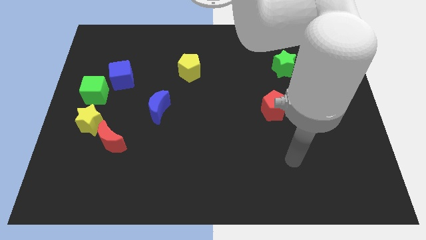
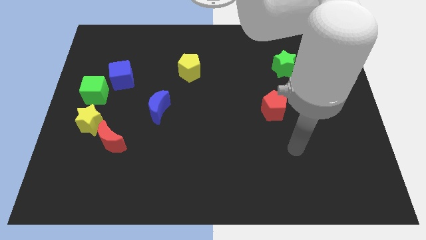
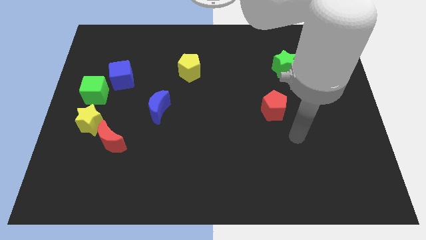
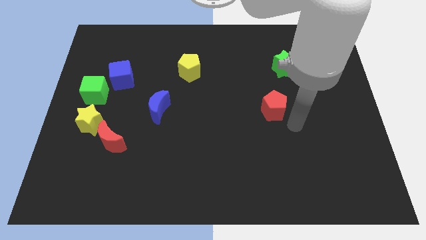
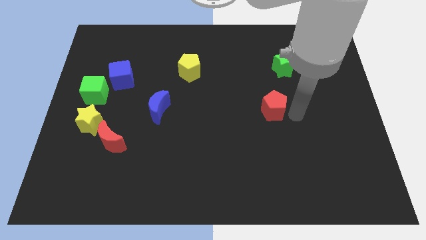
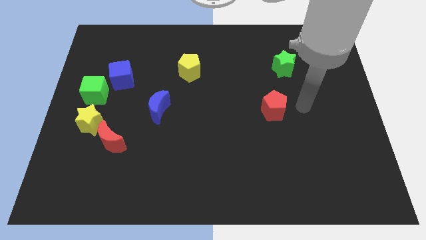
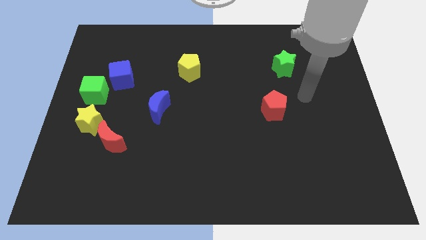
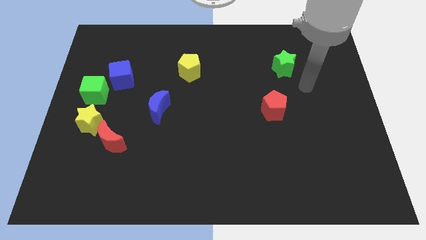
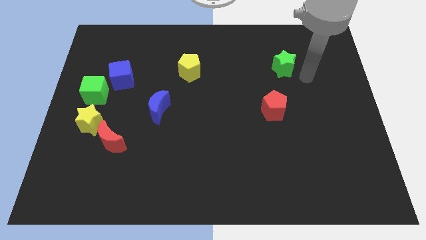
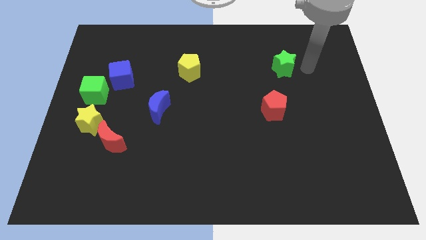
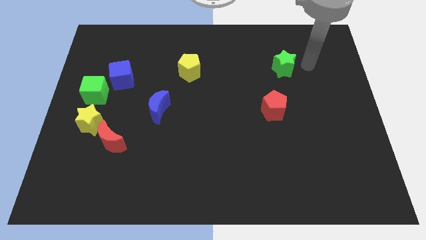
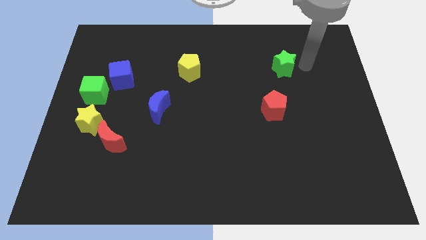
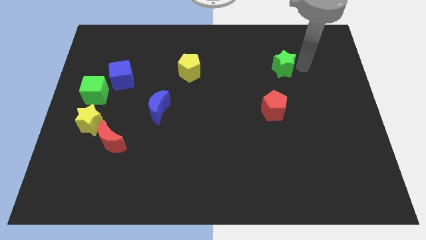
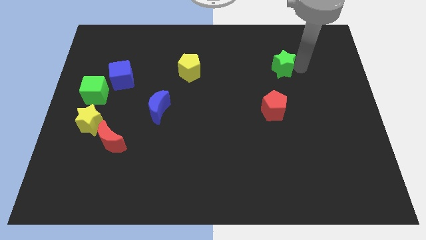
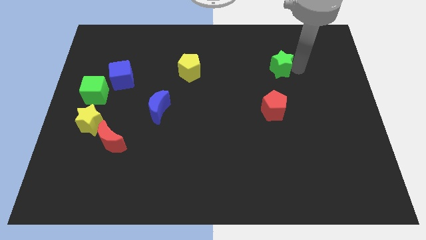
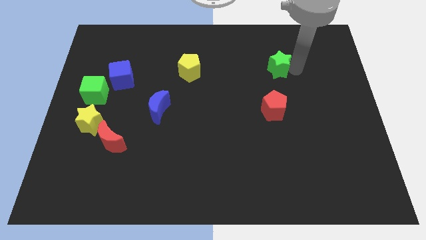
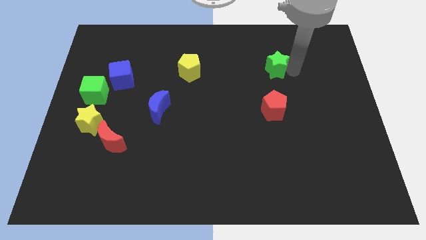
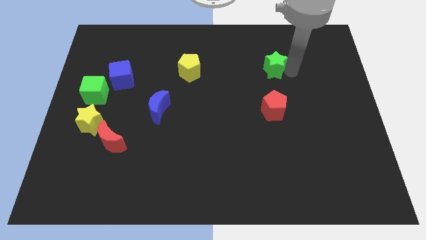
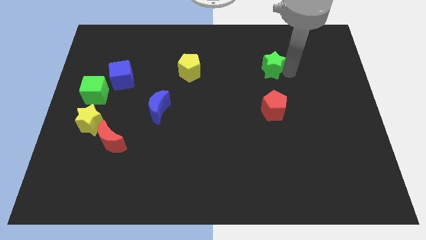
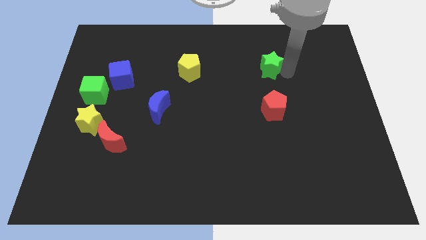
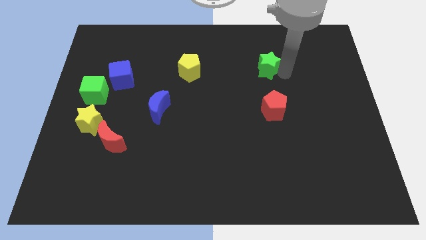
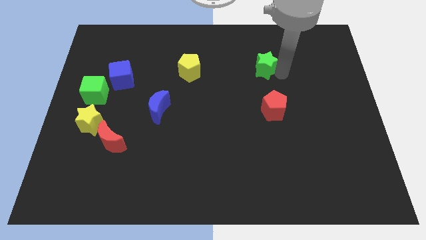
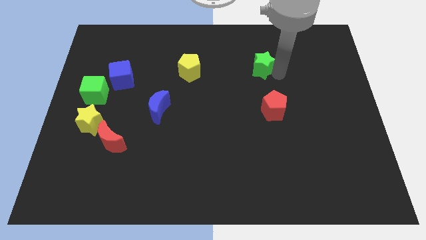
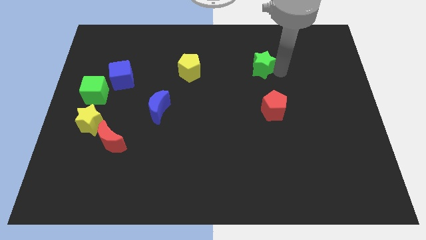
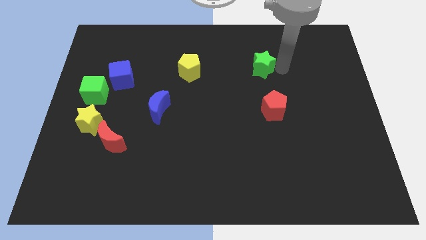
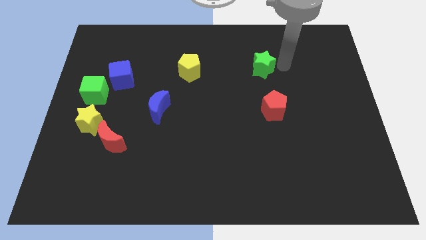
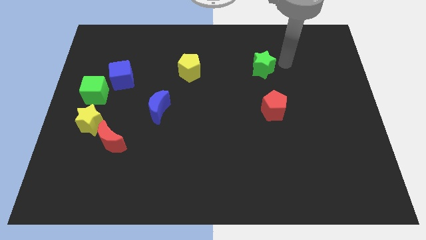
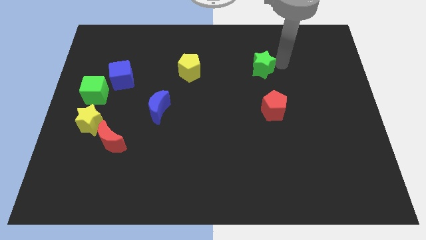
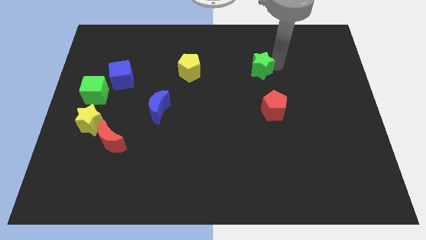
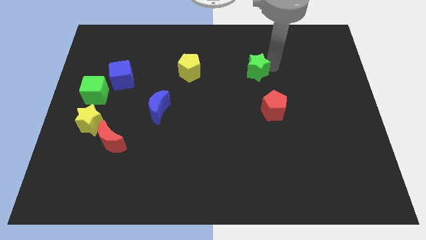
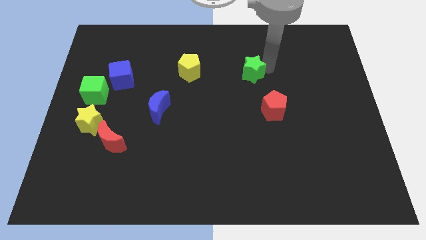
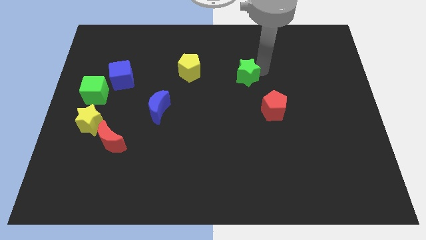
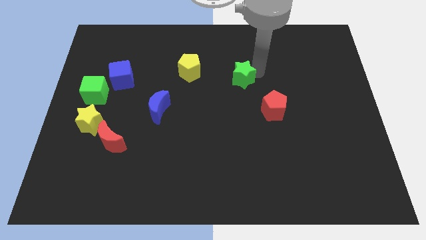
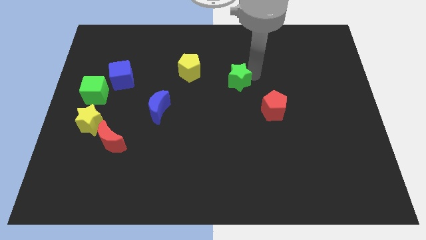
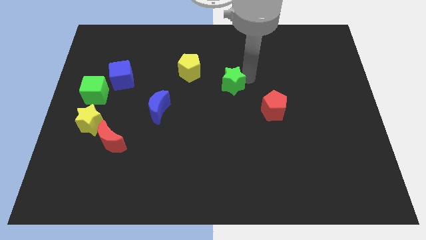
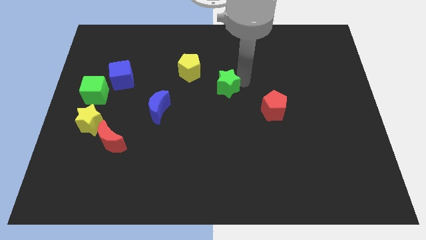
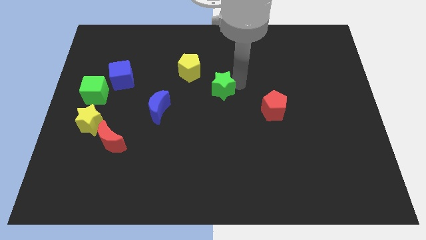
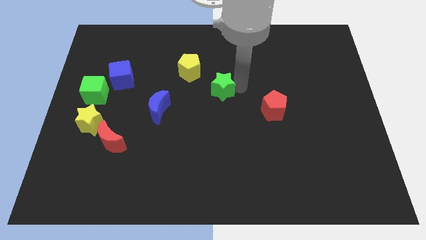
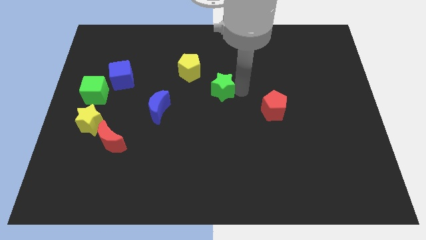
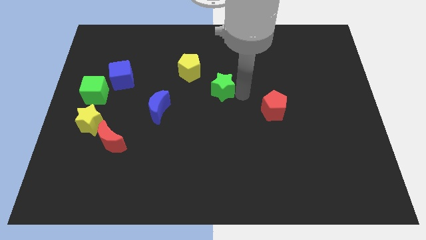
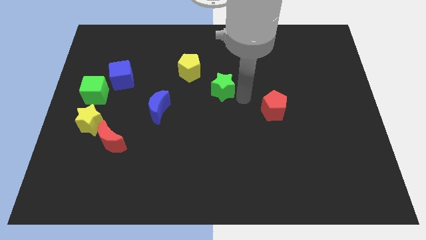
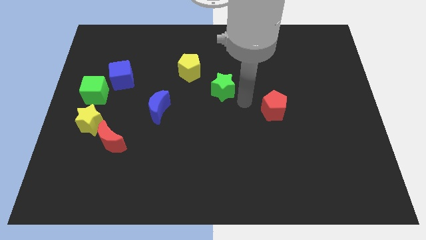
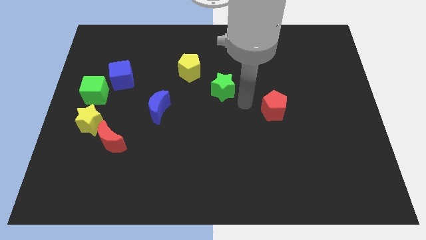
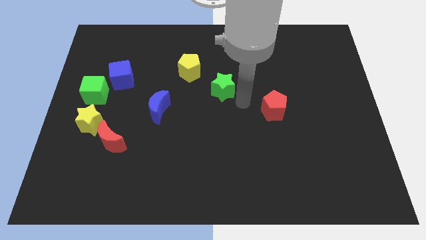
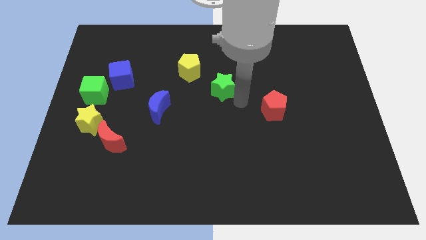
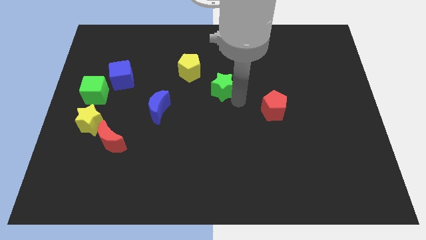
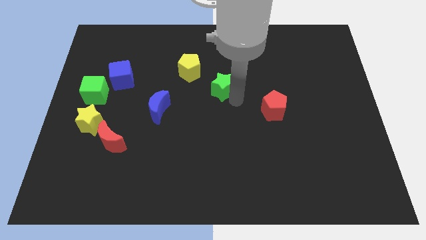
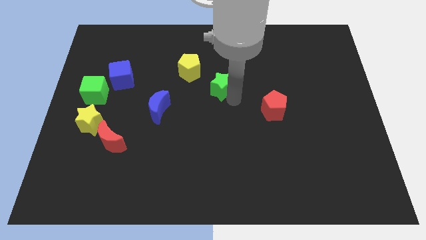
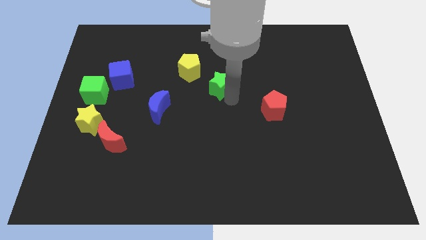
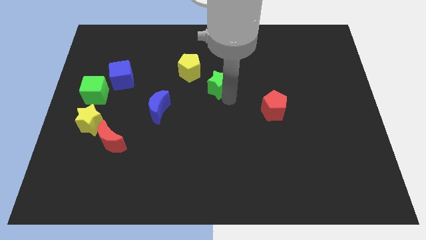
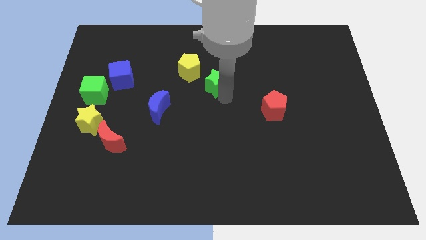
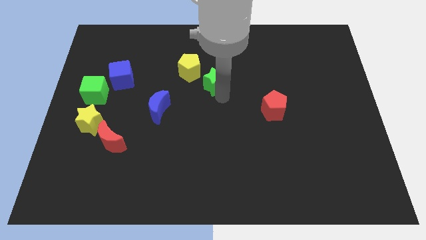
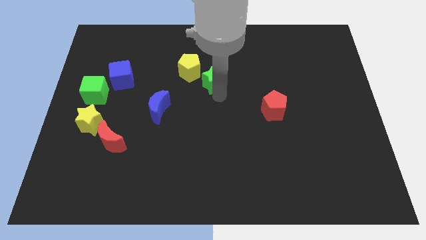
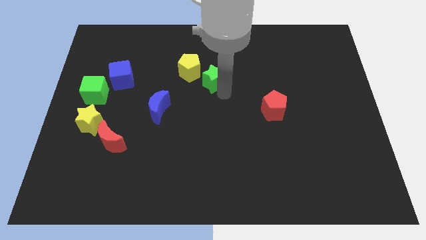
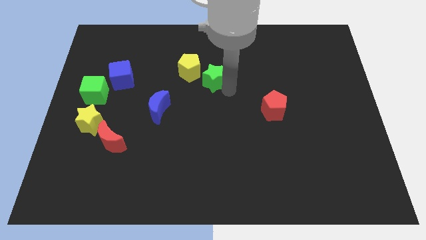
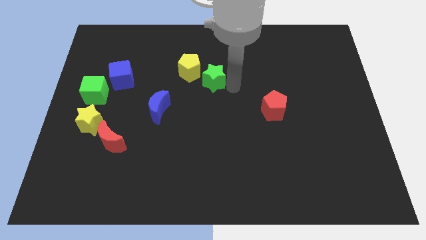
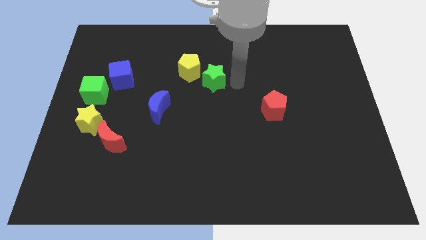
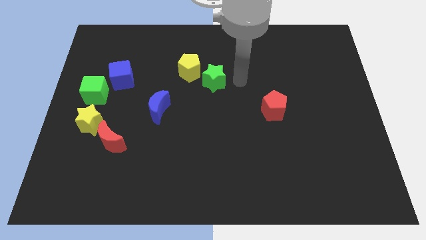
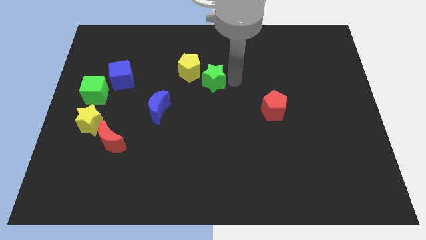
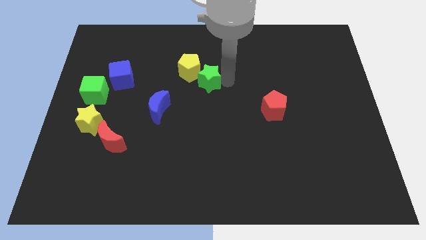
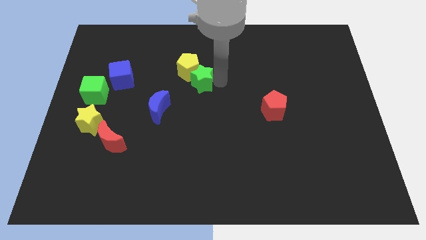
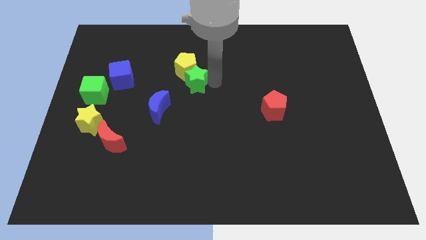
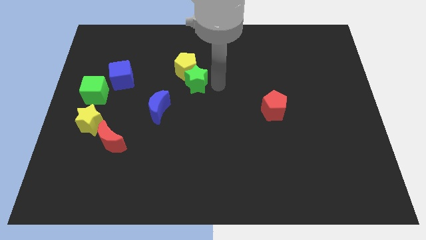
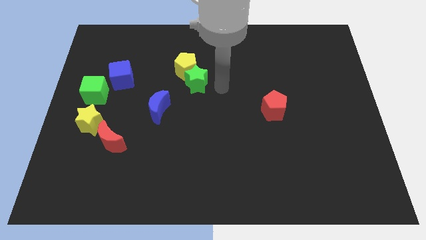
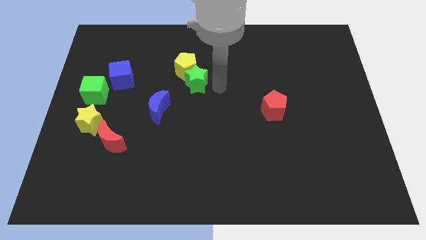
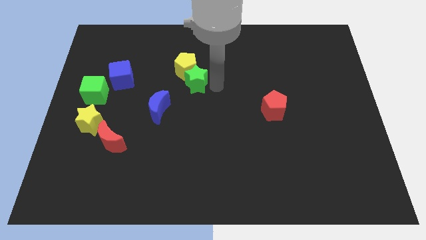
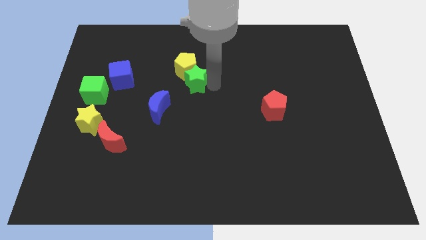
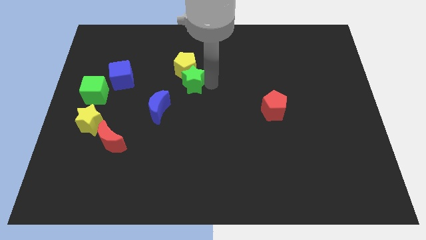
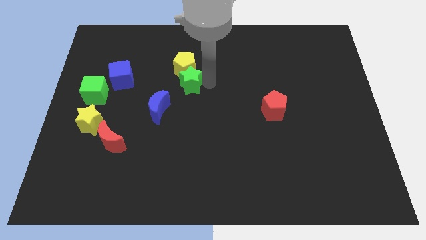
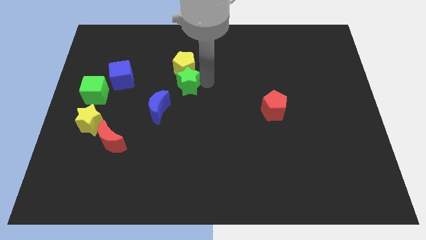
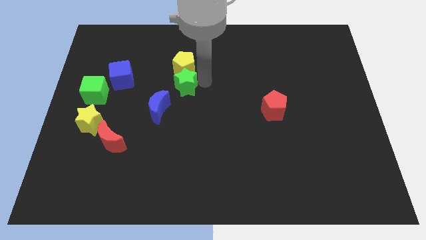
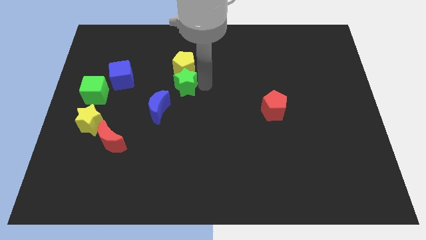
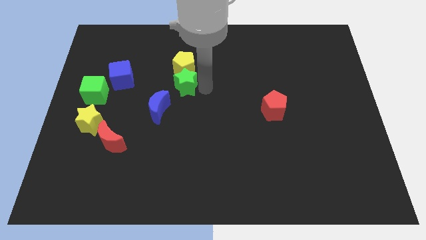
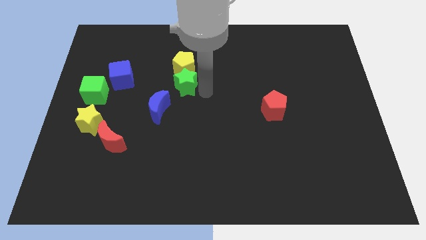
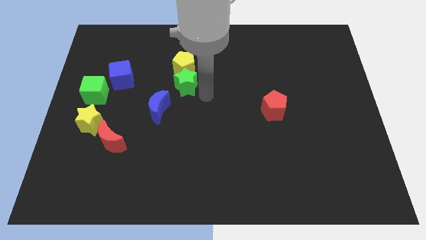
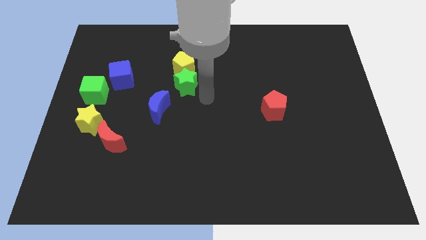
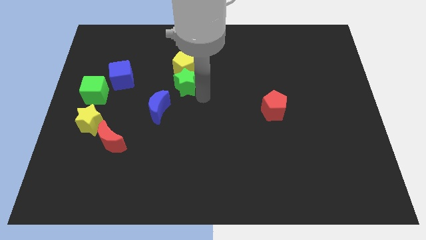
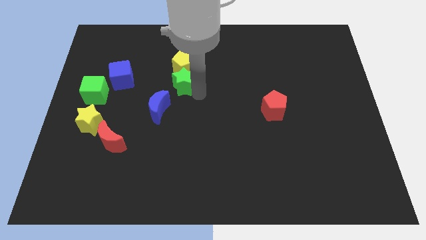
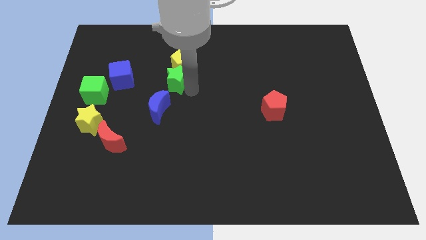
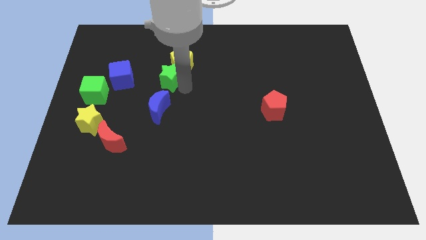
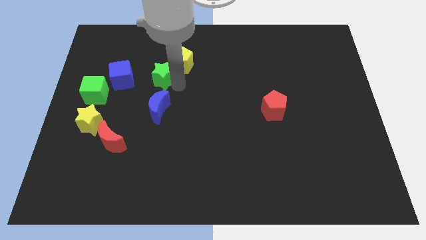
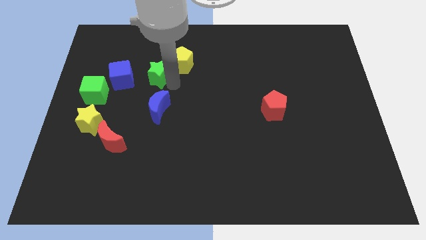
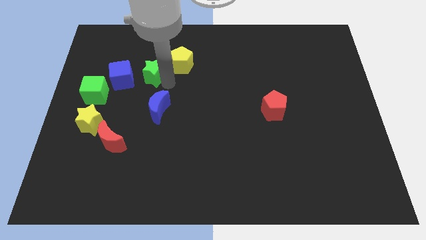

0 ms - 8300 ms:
push the green star to the top right side of the blue cube
